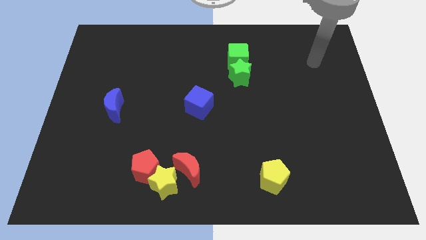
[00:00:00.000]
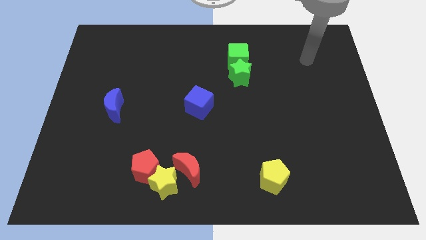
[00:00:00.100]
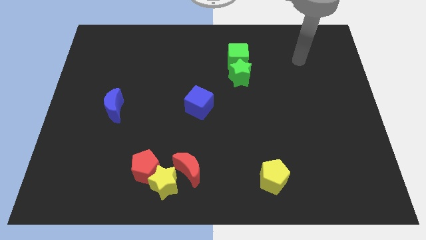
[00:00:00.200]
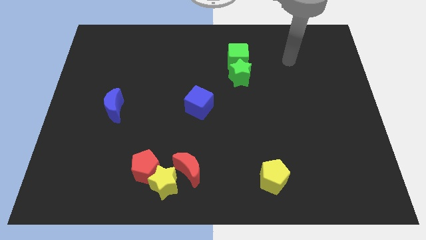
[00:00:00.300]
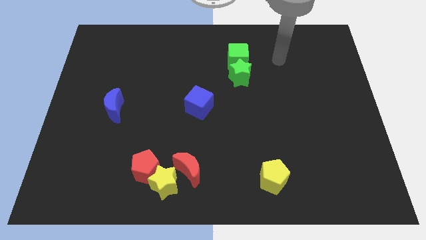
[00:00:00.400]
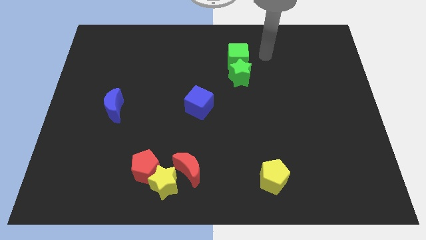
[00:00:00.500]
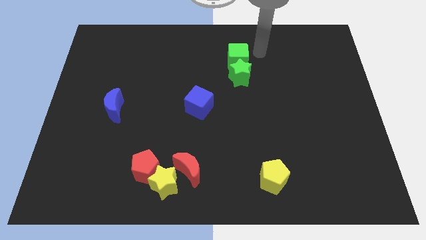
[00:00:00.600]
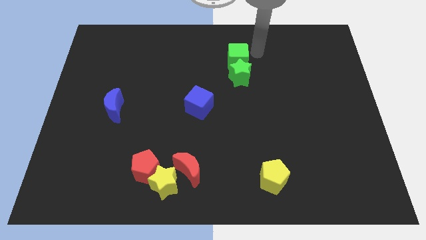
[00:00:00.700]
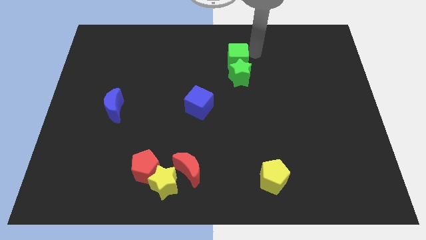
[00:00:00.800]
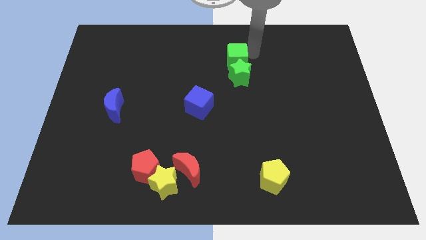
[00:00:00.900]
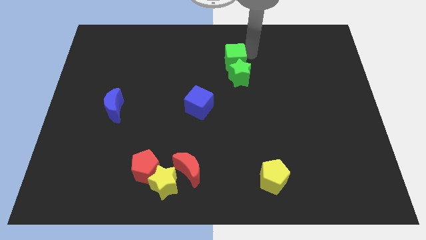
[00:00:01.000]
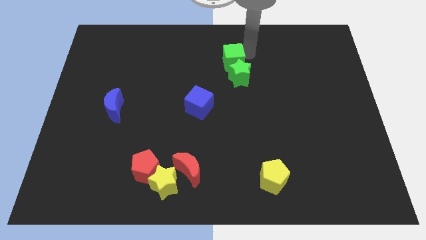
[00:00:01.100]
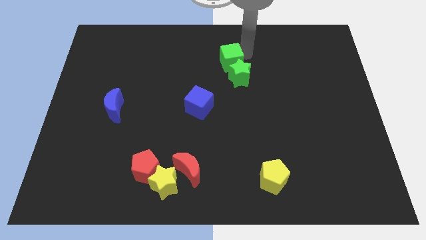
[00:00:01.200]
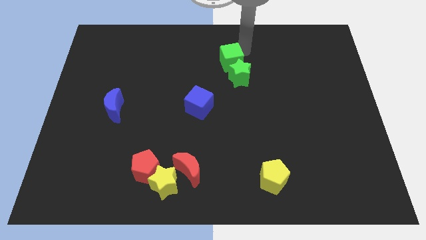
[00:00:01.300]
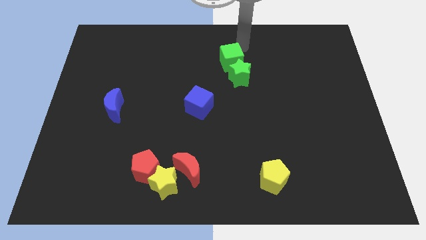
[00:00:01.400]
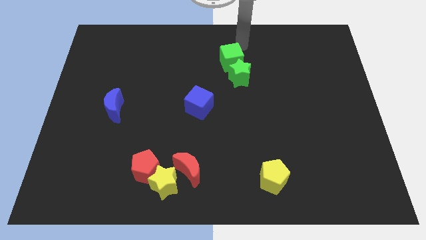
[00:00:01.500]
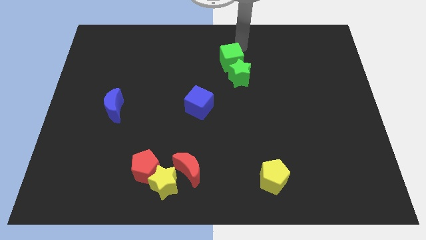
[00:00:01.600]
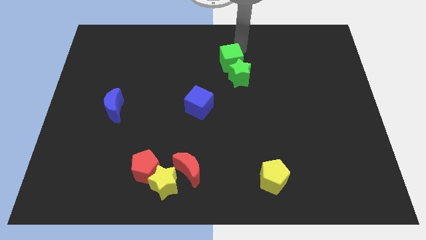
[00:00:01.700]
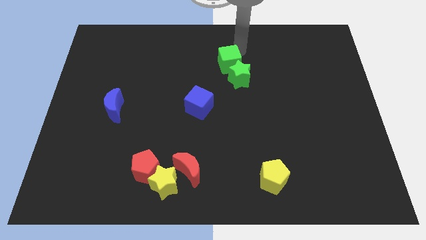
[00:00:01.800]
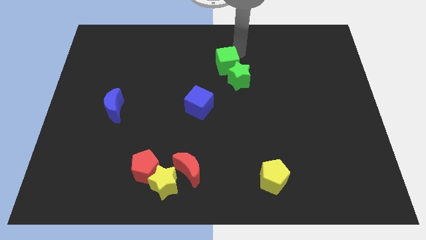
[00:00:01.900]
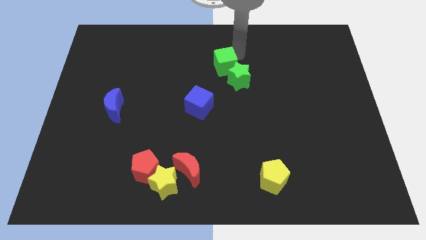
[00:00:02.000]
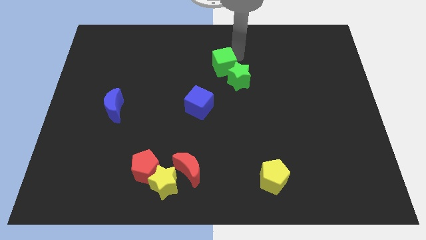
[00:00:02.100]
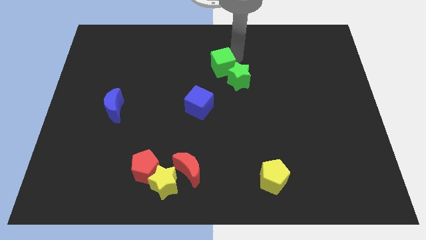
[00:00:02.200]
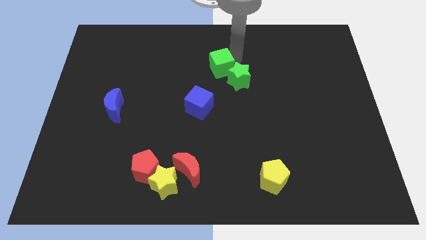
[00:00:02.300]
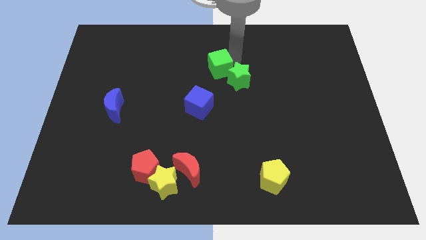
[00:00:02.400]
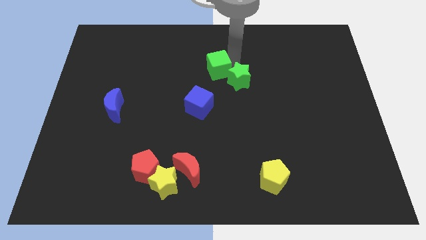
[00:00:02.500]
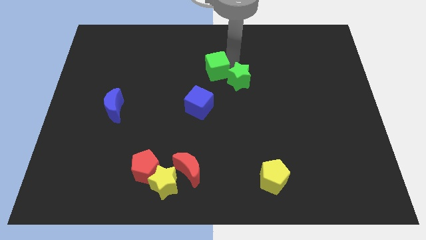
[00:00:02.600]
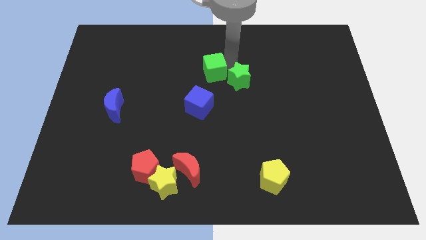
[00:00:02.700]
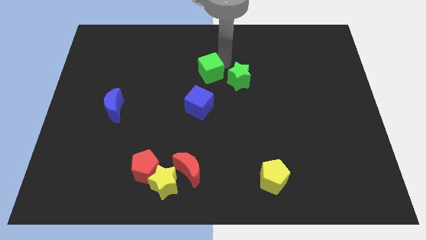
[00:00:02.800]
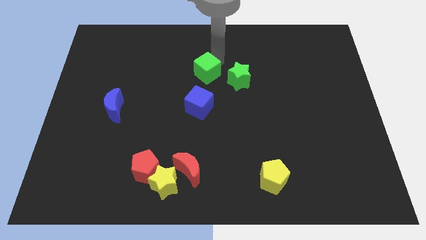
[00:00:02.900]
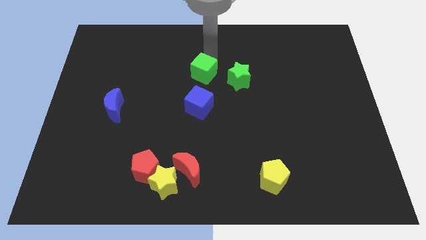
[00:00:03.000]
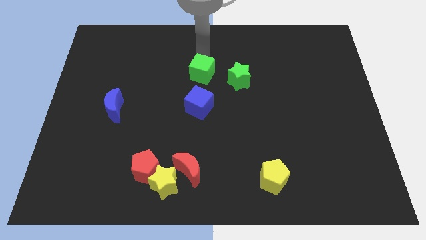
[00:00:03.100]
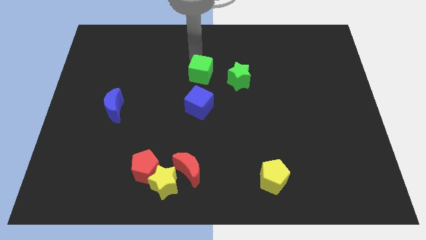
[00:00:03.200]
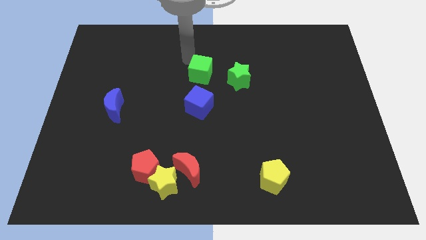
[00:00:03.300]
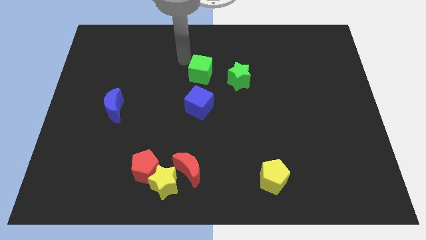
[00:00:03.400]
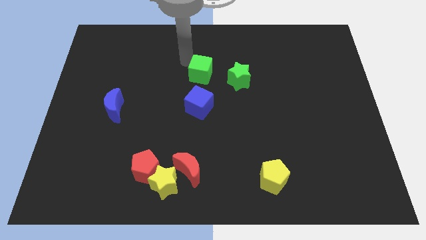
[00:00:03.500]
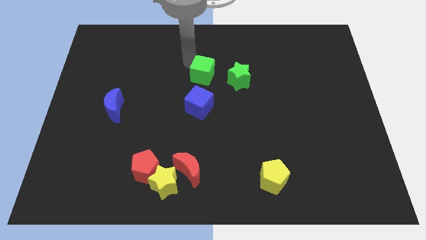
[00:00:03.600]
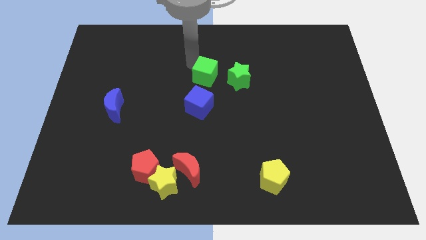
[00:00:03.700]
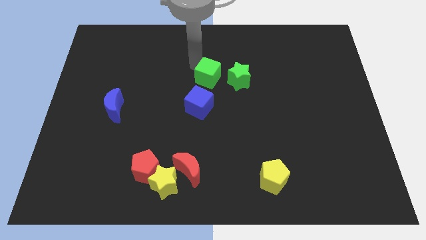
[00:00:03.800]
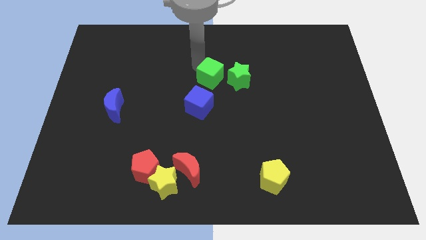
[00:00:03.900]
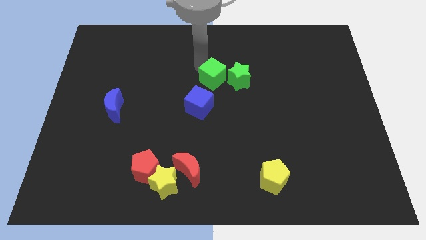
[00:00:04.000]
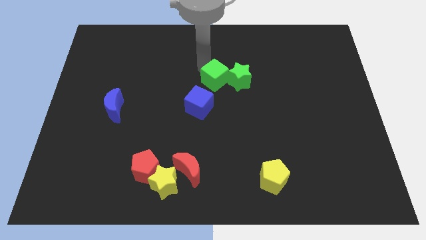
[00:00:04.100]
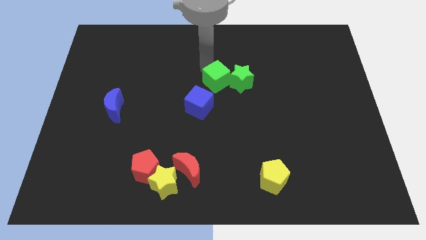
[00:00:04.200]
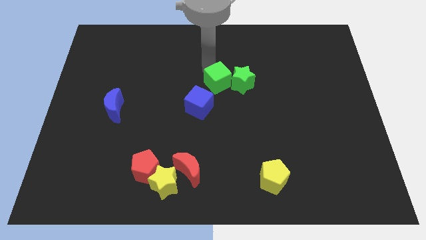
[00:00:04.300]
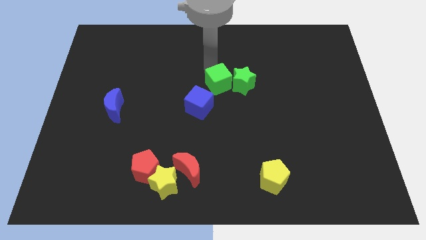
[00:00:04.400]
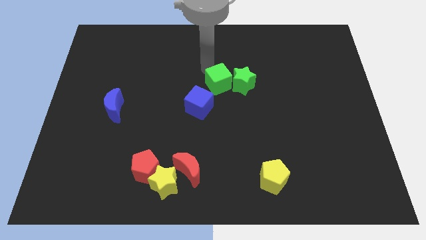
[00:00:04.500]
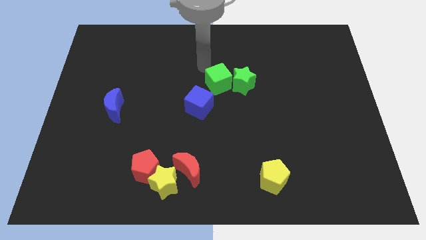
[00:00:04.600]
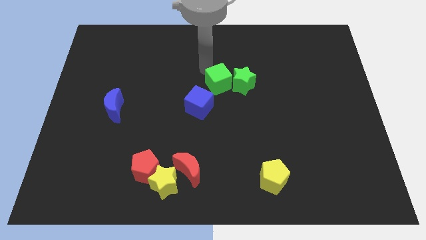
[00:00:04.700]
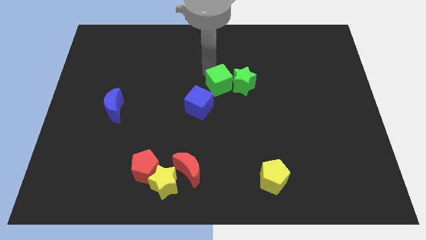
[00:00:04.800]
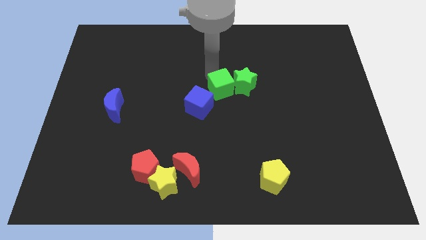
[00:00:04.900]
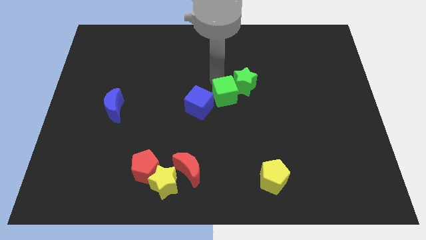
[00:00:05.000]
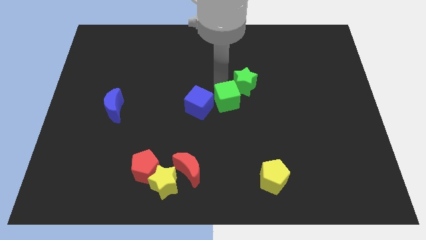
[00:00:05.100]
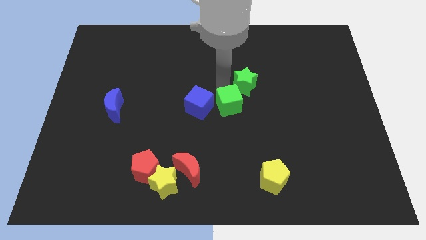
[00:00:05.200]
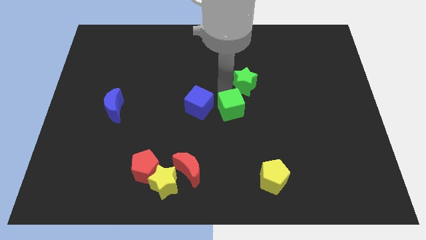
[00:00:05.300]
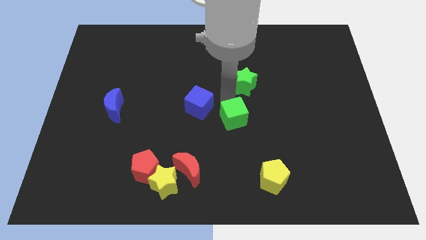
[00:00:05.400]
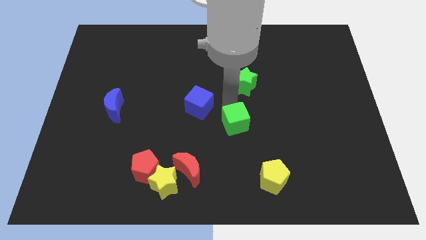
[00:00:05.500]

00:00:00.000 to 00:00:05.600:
slide the green cube down

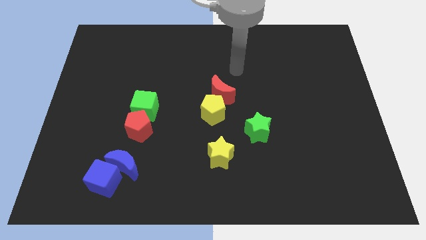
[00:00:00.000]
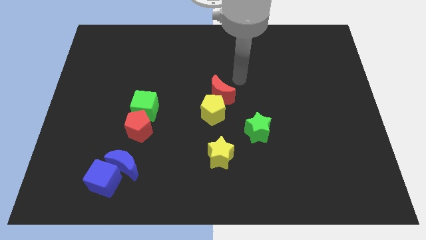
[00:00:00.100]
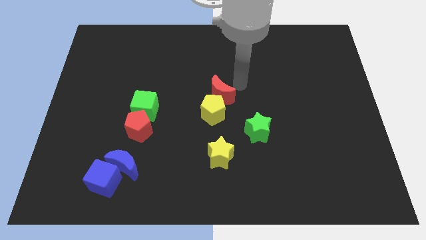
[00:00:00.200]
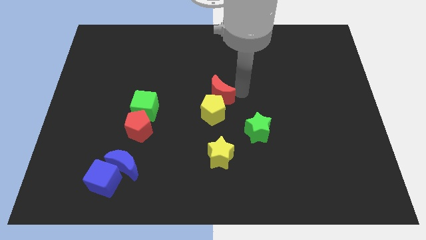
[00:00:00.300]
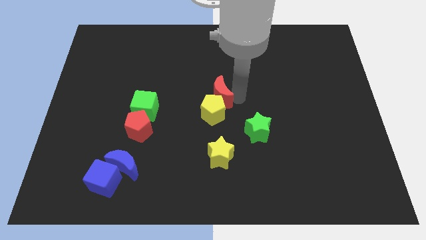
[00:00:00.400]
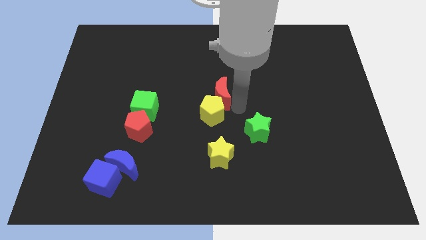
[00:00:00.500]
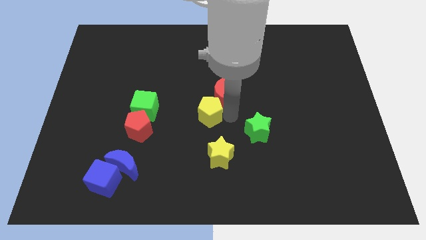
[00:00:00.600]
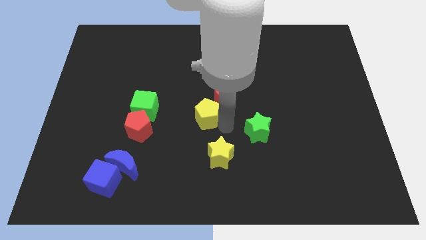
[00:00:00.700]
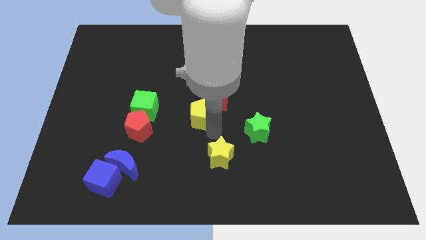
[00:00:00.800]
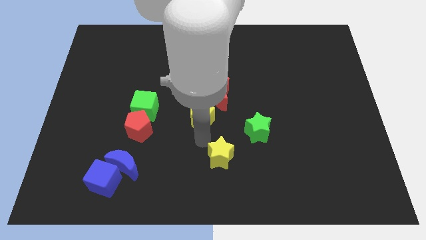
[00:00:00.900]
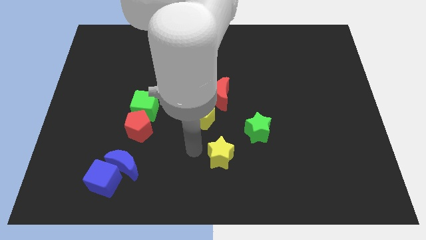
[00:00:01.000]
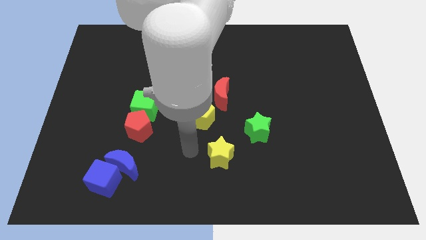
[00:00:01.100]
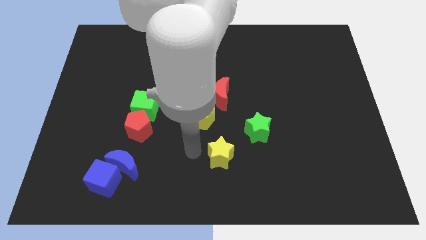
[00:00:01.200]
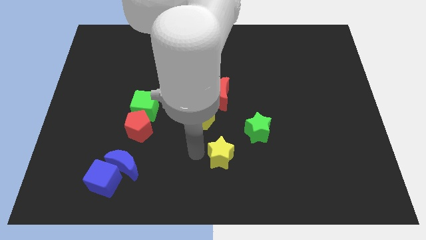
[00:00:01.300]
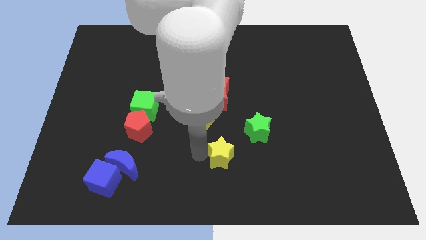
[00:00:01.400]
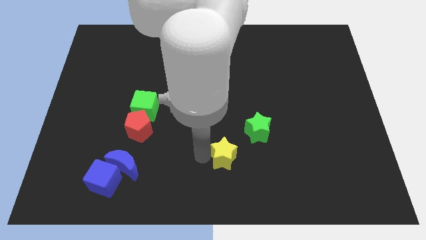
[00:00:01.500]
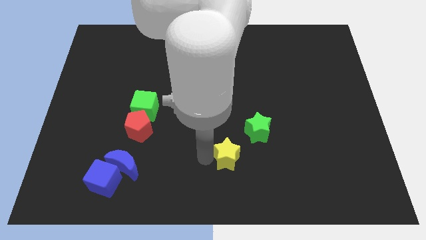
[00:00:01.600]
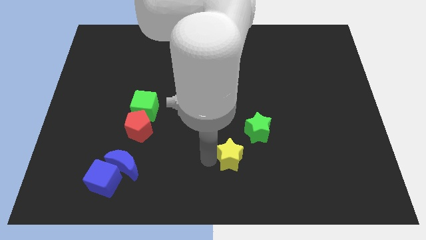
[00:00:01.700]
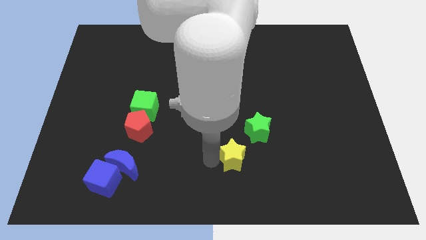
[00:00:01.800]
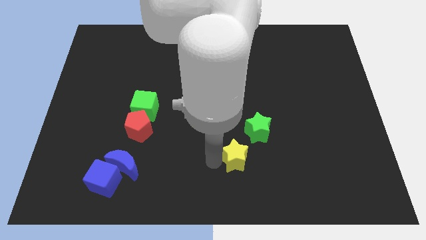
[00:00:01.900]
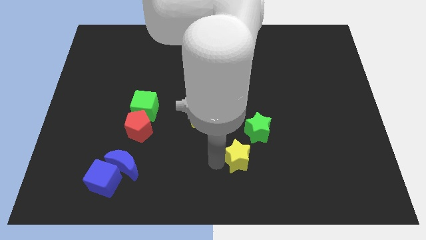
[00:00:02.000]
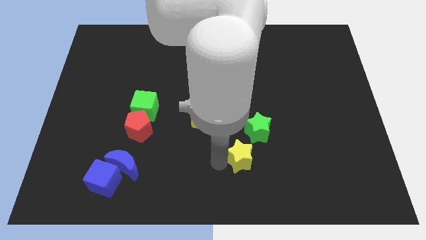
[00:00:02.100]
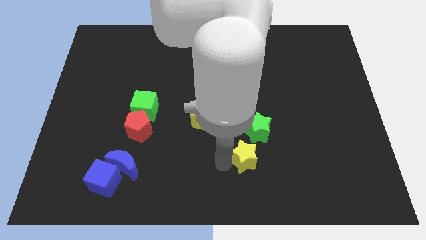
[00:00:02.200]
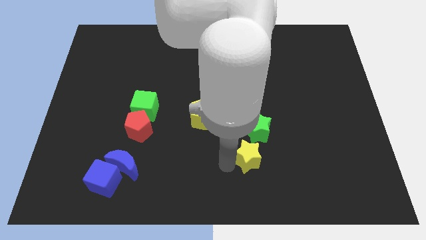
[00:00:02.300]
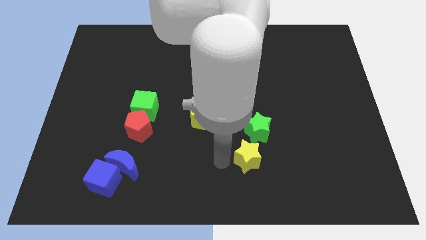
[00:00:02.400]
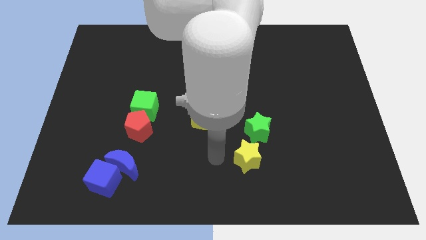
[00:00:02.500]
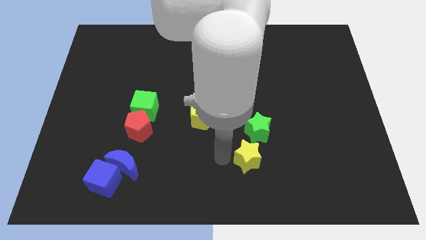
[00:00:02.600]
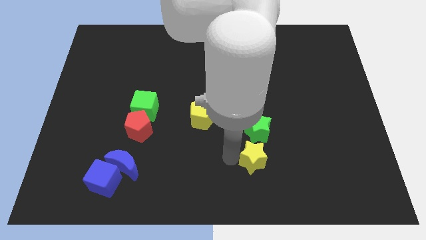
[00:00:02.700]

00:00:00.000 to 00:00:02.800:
slightly push the yellow star right
